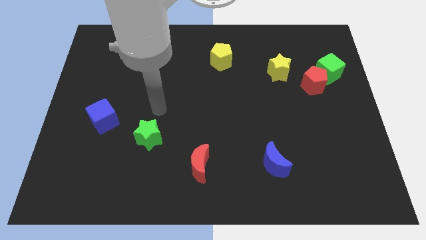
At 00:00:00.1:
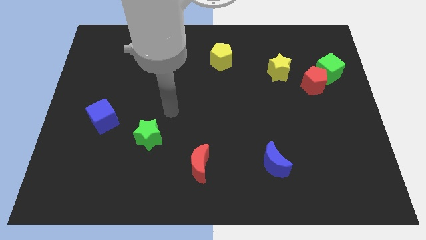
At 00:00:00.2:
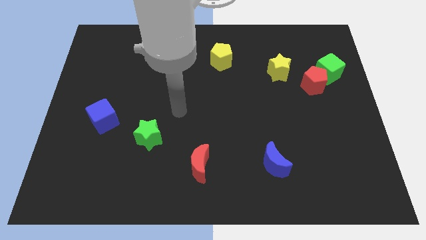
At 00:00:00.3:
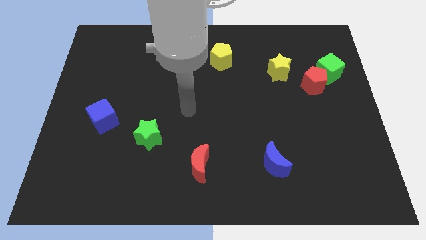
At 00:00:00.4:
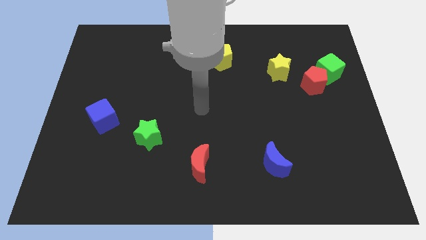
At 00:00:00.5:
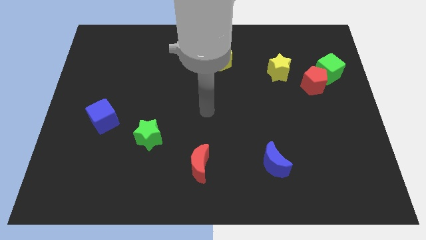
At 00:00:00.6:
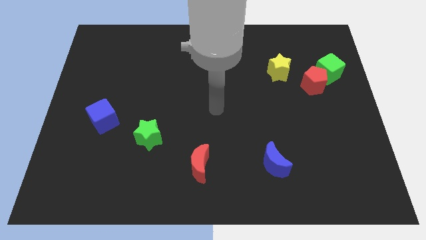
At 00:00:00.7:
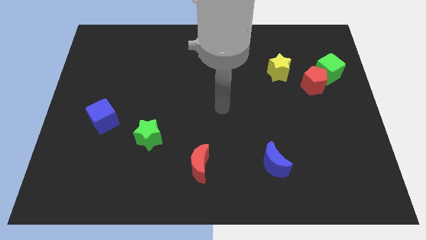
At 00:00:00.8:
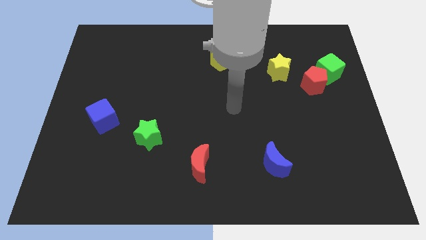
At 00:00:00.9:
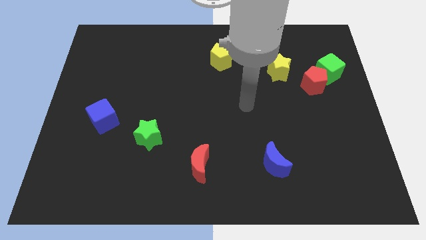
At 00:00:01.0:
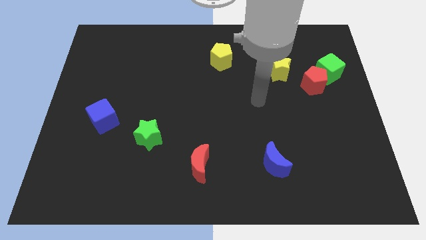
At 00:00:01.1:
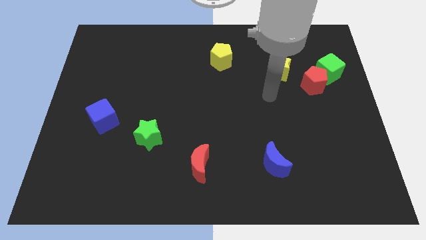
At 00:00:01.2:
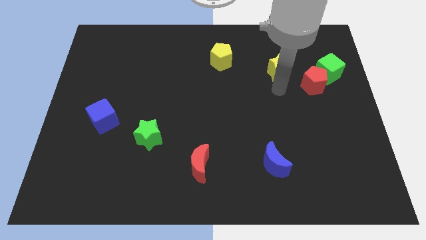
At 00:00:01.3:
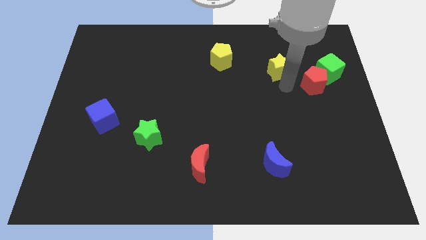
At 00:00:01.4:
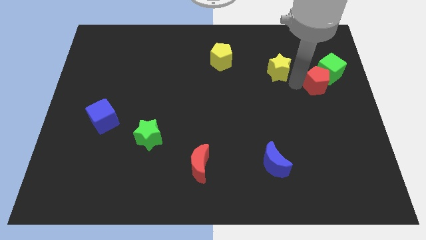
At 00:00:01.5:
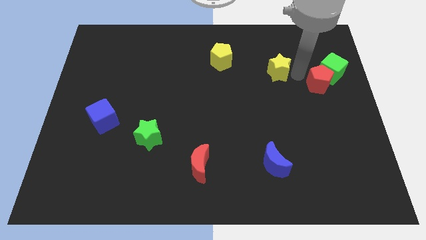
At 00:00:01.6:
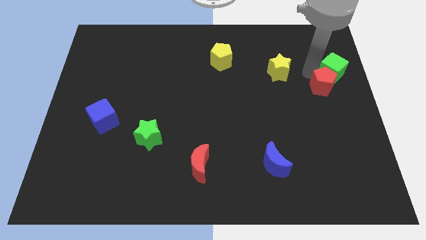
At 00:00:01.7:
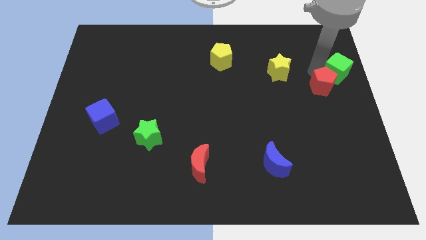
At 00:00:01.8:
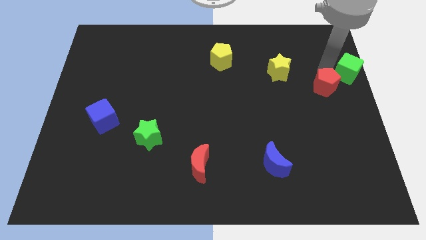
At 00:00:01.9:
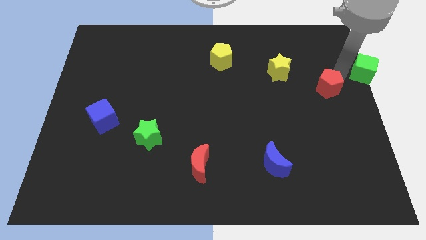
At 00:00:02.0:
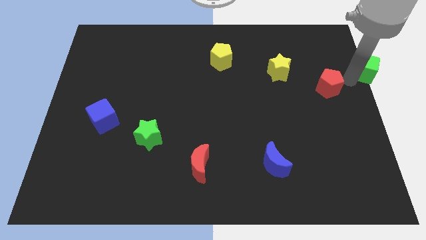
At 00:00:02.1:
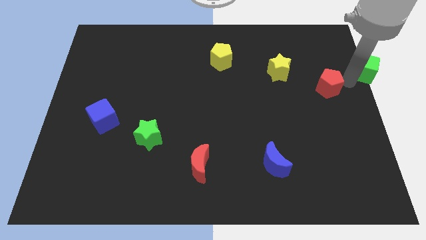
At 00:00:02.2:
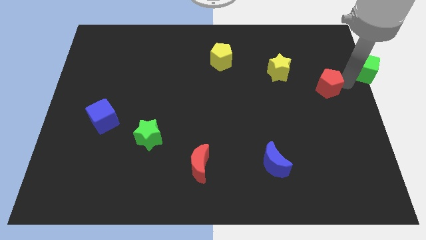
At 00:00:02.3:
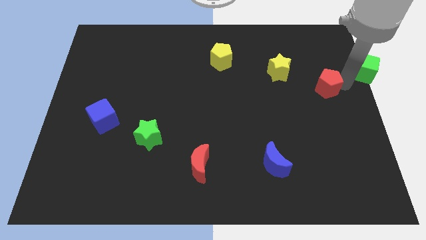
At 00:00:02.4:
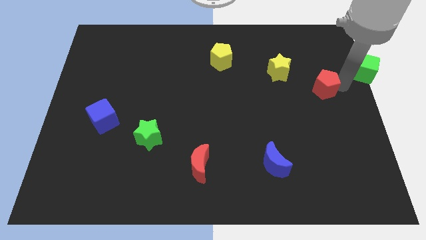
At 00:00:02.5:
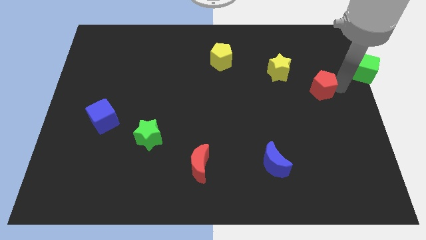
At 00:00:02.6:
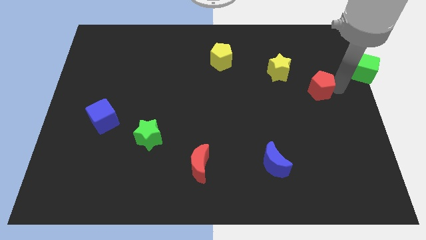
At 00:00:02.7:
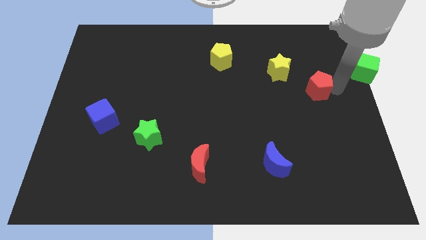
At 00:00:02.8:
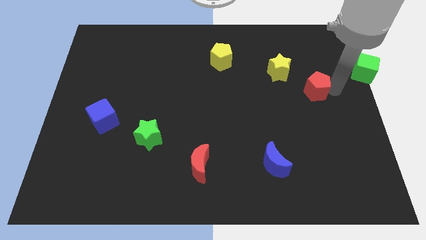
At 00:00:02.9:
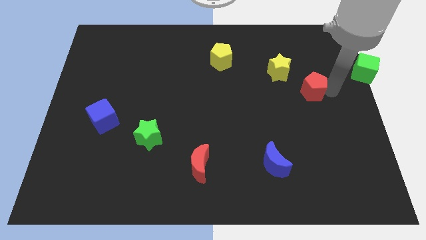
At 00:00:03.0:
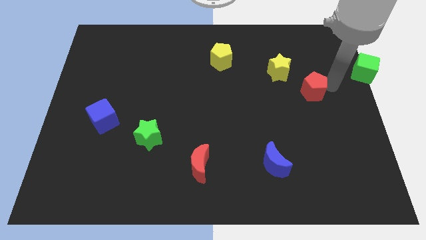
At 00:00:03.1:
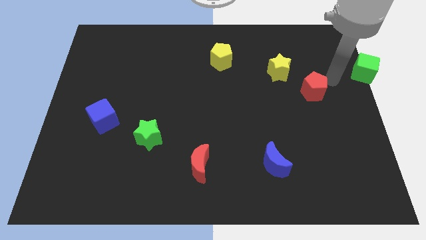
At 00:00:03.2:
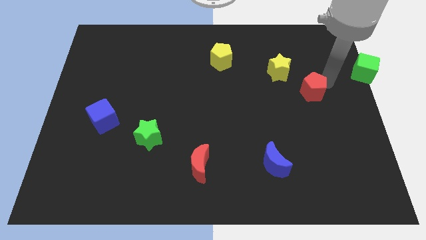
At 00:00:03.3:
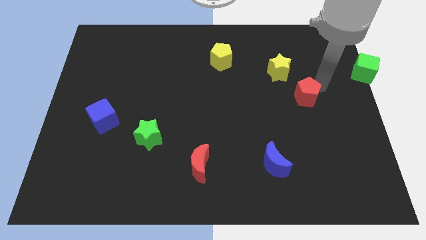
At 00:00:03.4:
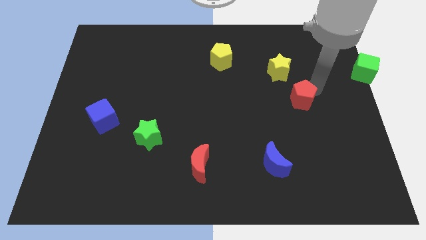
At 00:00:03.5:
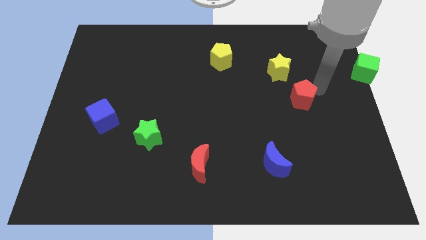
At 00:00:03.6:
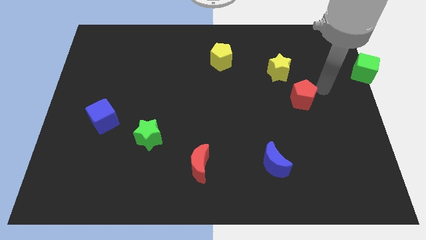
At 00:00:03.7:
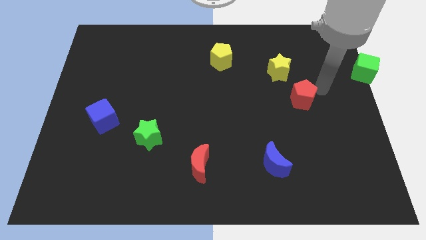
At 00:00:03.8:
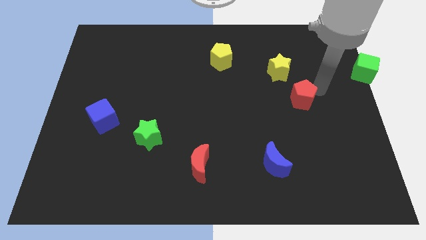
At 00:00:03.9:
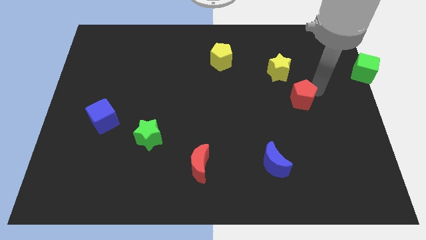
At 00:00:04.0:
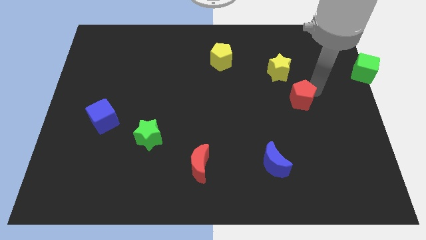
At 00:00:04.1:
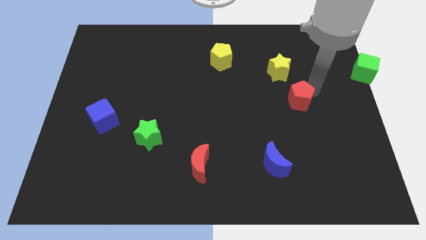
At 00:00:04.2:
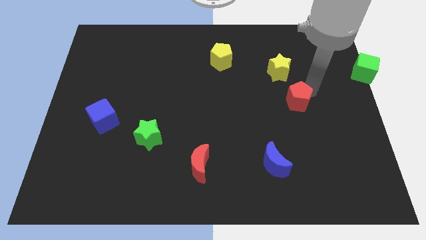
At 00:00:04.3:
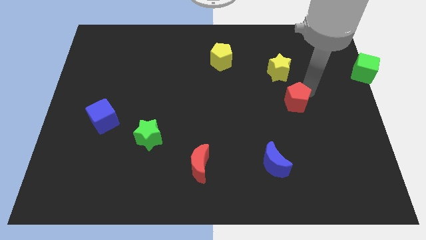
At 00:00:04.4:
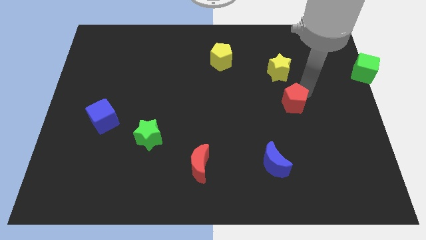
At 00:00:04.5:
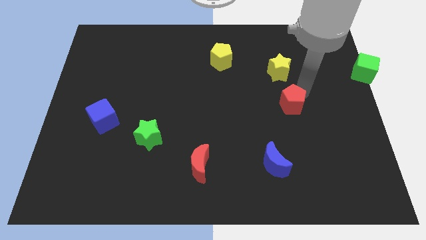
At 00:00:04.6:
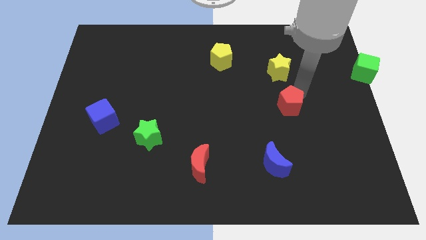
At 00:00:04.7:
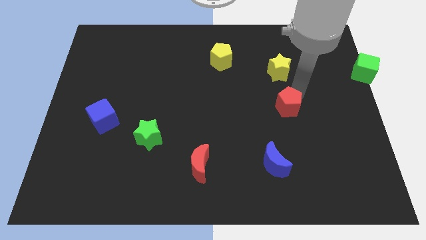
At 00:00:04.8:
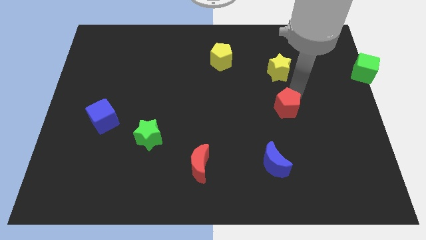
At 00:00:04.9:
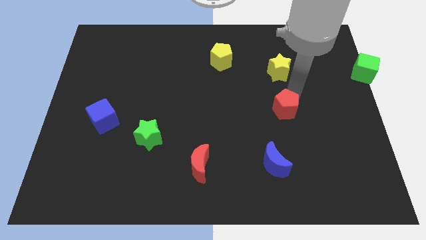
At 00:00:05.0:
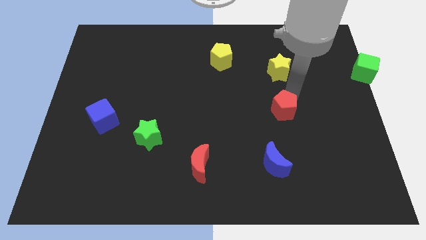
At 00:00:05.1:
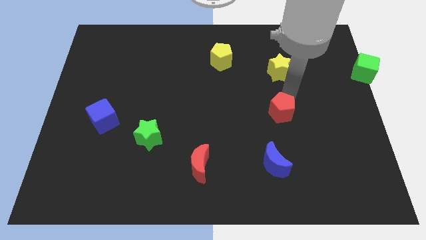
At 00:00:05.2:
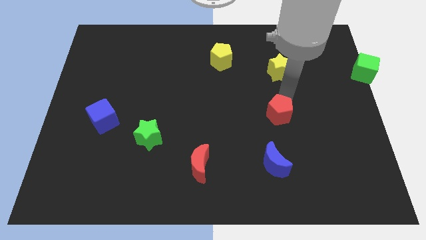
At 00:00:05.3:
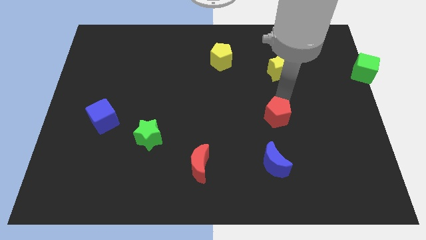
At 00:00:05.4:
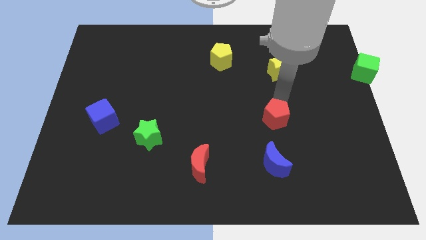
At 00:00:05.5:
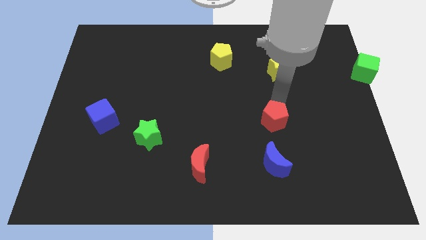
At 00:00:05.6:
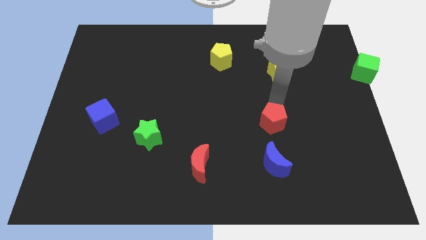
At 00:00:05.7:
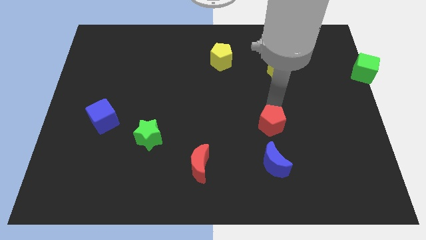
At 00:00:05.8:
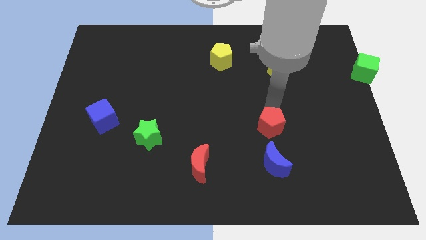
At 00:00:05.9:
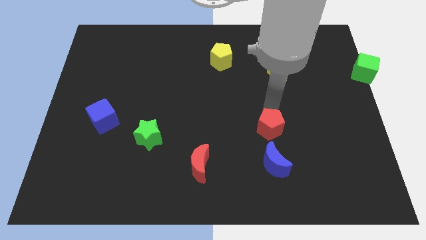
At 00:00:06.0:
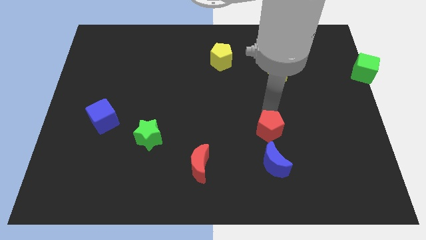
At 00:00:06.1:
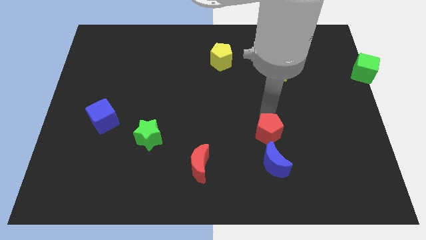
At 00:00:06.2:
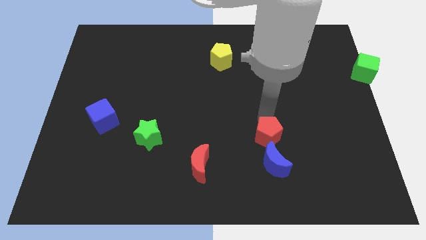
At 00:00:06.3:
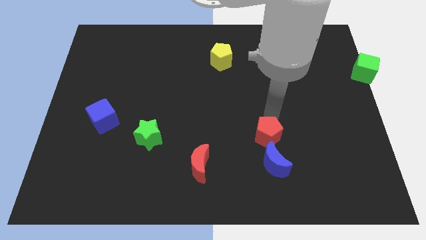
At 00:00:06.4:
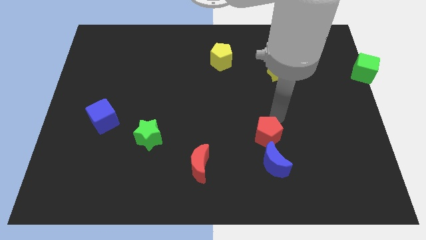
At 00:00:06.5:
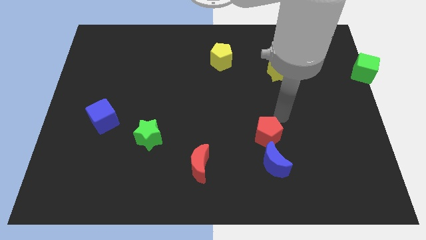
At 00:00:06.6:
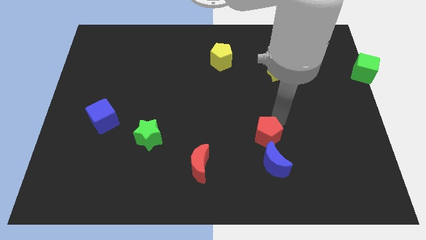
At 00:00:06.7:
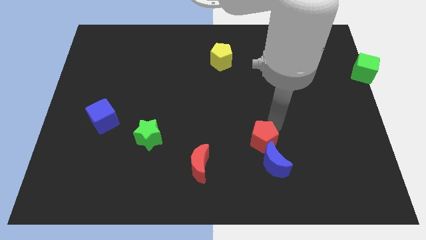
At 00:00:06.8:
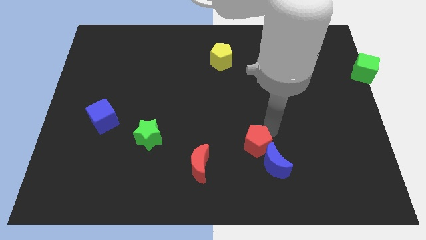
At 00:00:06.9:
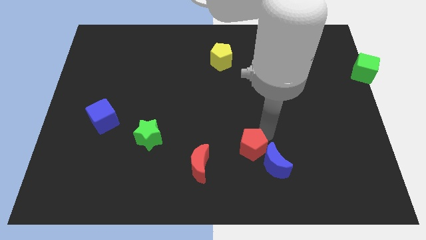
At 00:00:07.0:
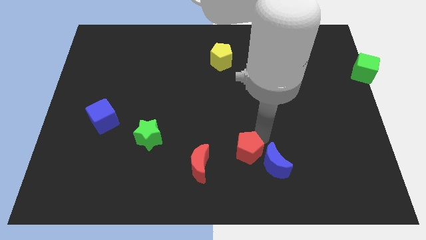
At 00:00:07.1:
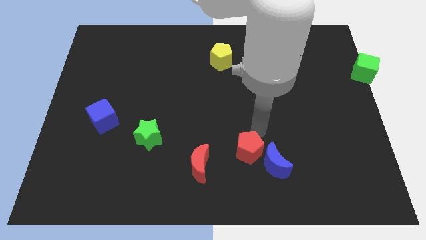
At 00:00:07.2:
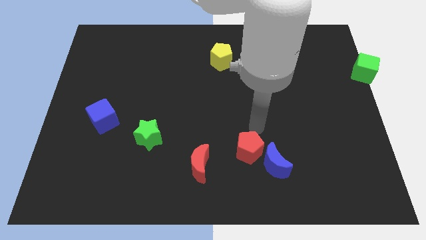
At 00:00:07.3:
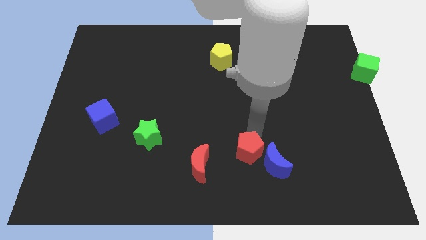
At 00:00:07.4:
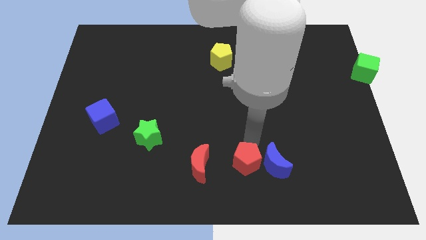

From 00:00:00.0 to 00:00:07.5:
move the red pentagon to the bottom
